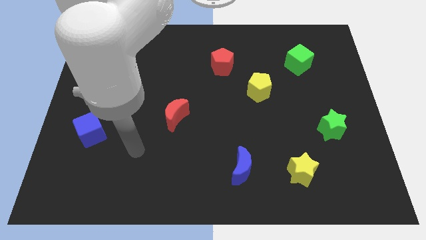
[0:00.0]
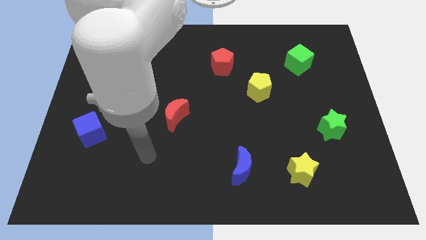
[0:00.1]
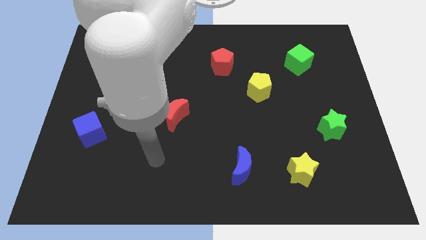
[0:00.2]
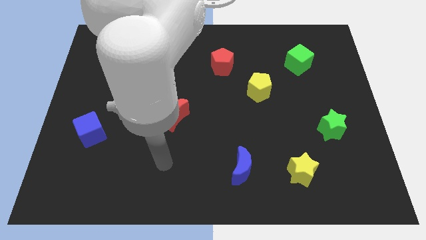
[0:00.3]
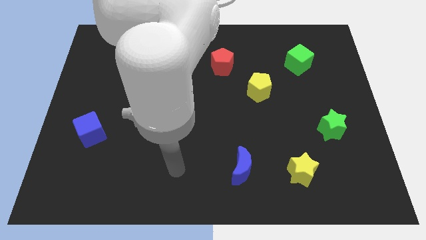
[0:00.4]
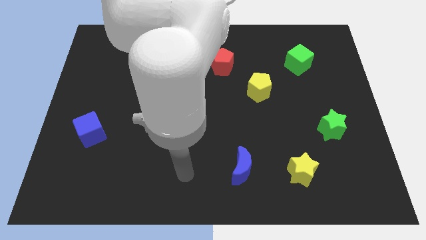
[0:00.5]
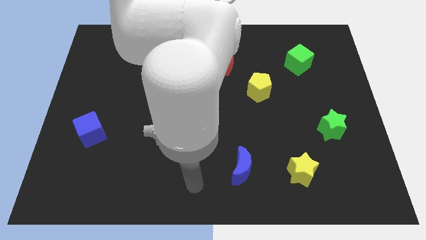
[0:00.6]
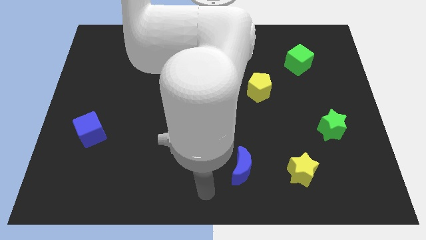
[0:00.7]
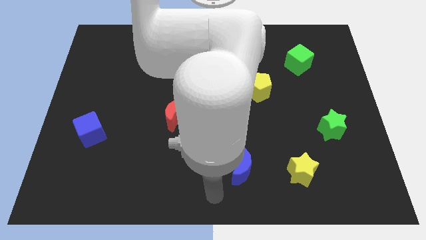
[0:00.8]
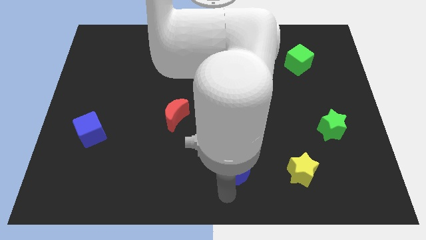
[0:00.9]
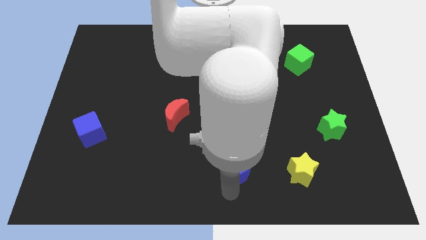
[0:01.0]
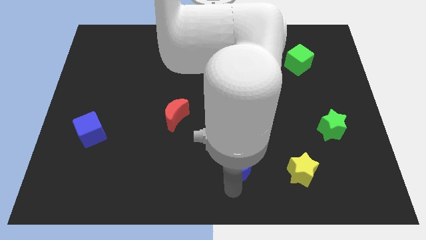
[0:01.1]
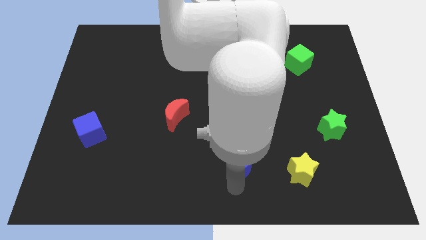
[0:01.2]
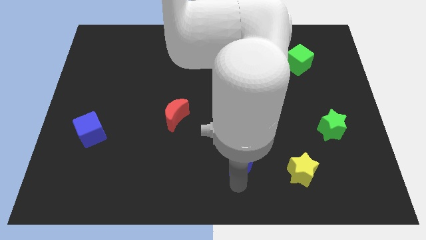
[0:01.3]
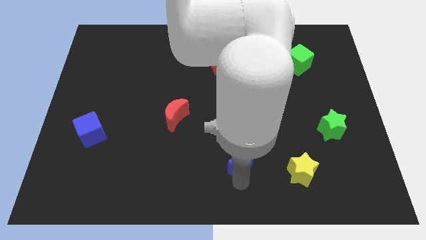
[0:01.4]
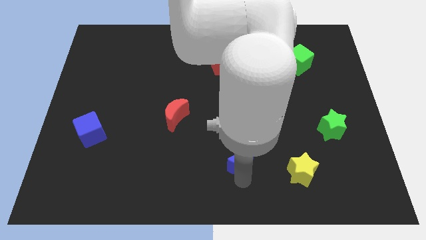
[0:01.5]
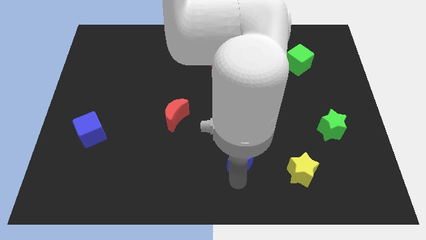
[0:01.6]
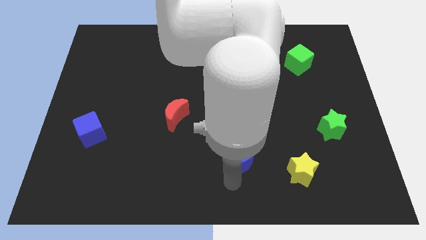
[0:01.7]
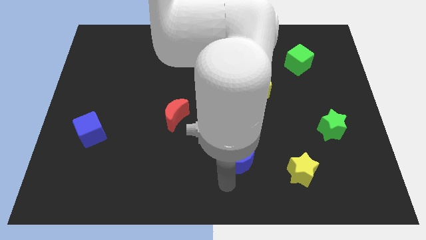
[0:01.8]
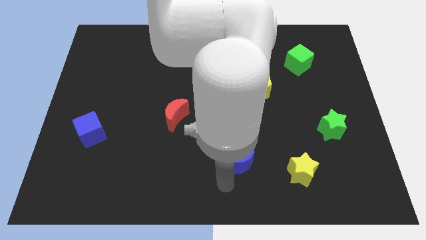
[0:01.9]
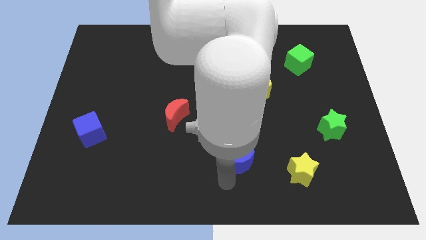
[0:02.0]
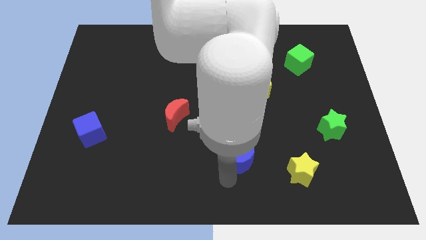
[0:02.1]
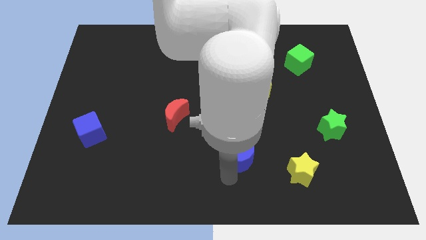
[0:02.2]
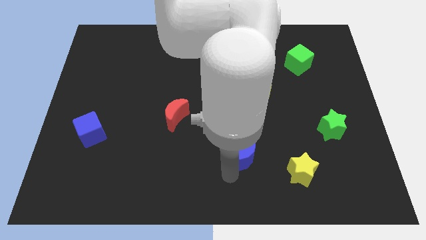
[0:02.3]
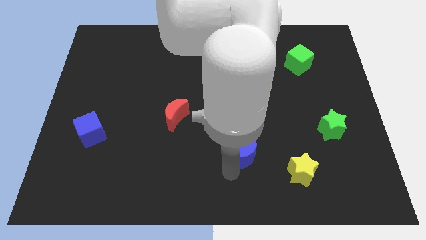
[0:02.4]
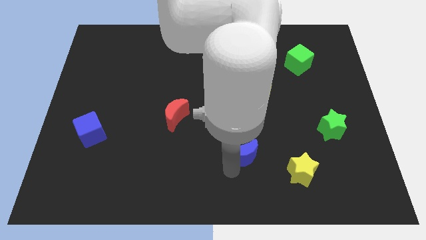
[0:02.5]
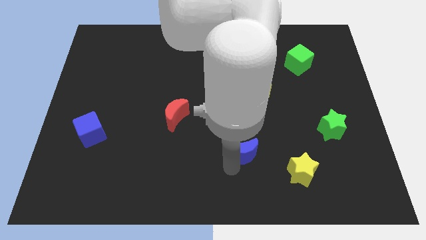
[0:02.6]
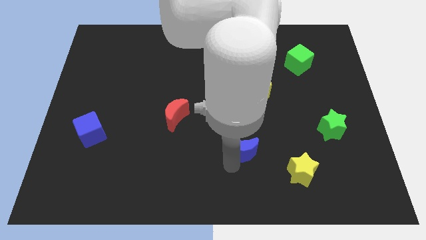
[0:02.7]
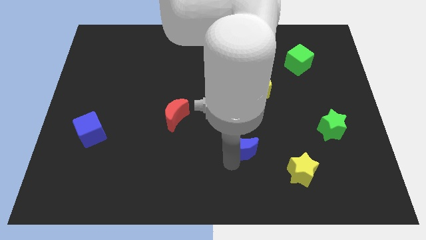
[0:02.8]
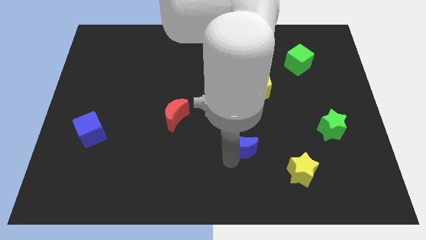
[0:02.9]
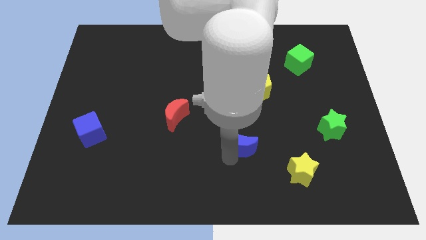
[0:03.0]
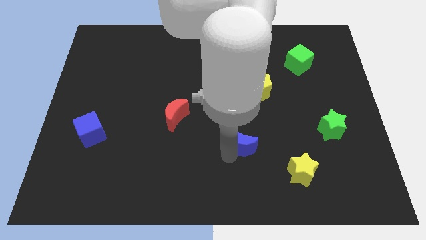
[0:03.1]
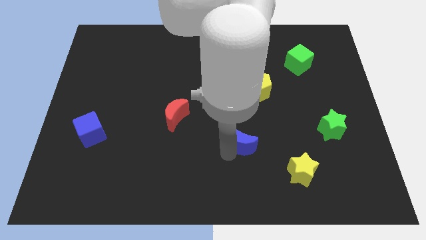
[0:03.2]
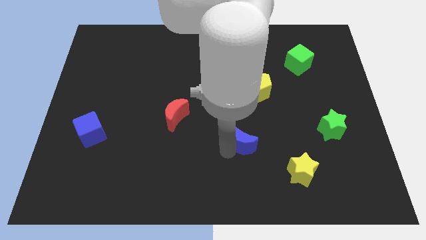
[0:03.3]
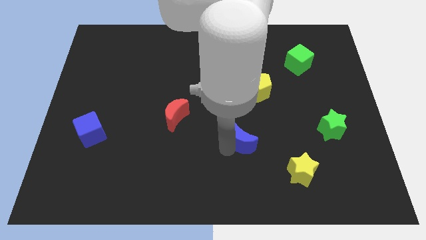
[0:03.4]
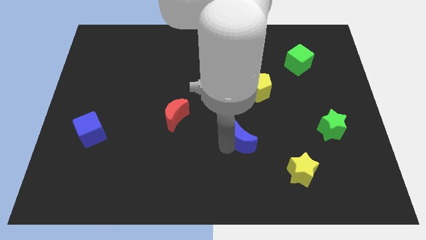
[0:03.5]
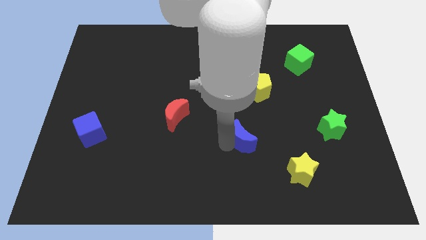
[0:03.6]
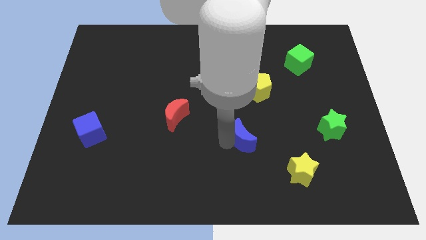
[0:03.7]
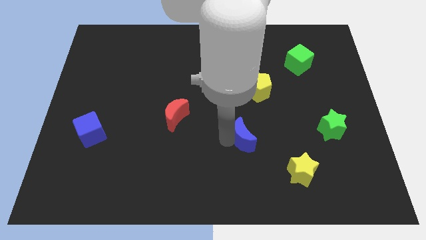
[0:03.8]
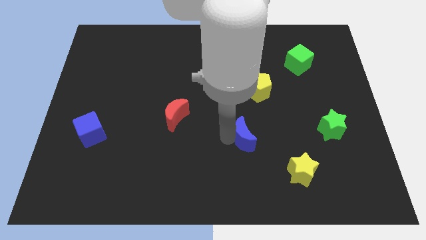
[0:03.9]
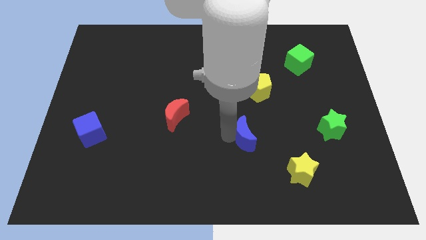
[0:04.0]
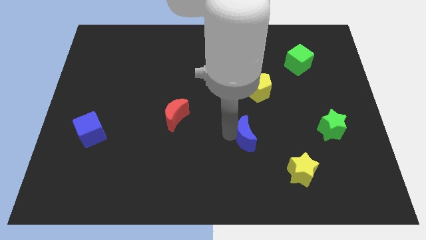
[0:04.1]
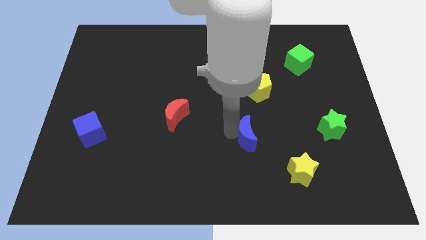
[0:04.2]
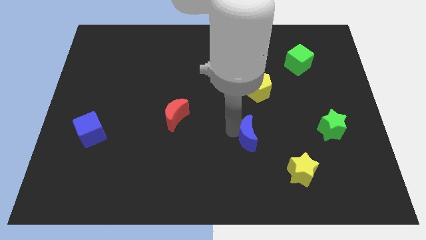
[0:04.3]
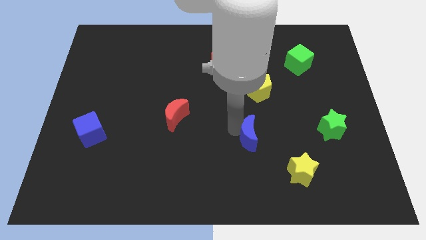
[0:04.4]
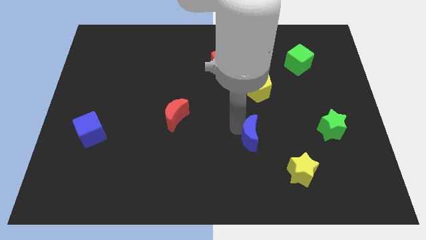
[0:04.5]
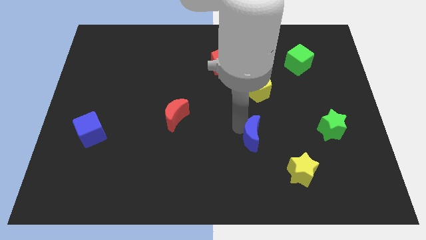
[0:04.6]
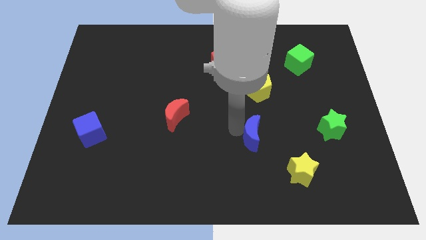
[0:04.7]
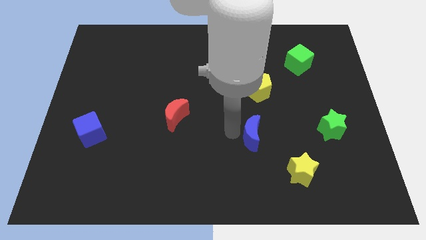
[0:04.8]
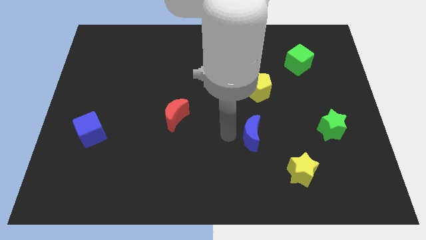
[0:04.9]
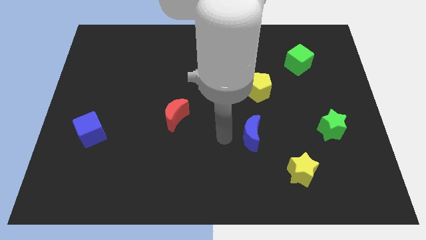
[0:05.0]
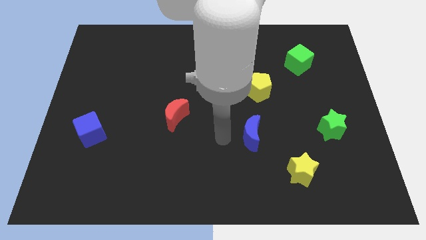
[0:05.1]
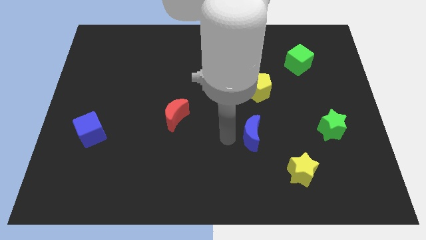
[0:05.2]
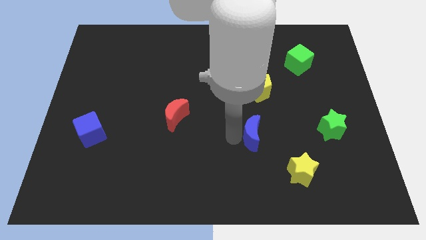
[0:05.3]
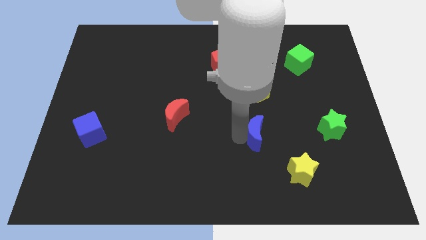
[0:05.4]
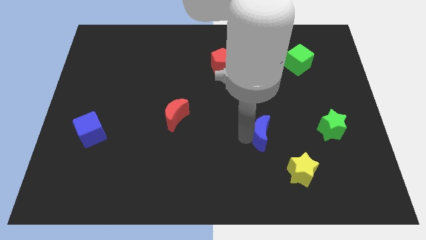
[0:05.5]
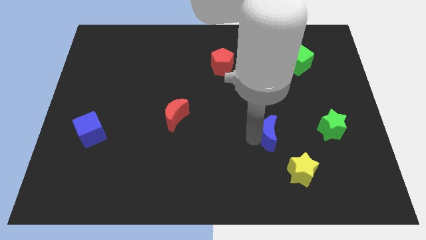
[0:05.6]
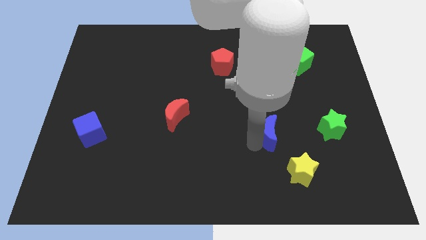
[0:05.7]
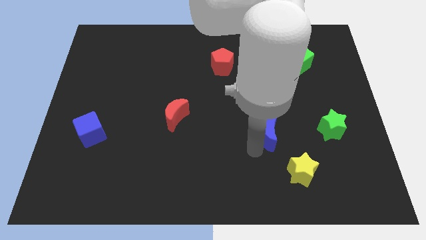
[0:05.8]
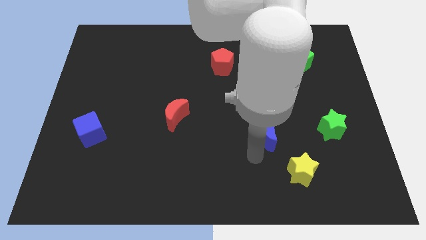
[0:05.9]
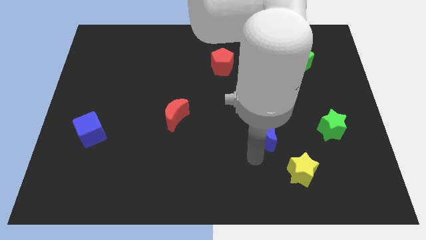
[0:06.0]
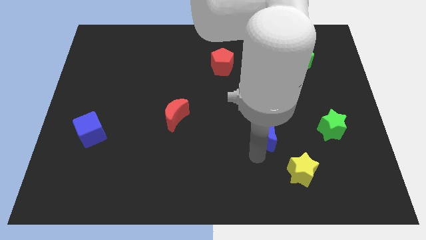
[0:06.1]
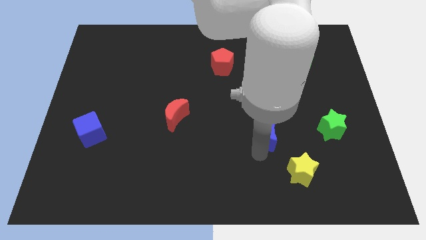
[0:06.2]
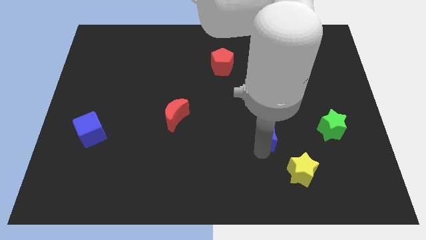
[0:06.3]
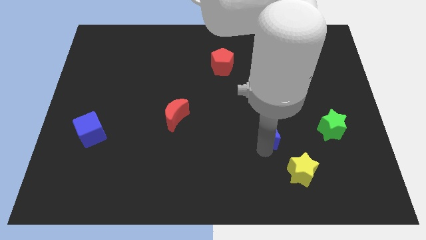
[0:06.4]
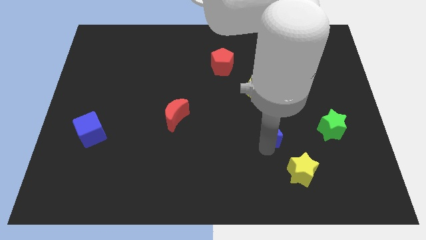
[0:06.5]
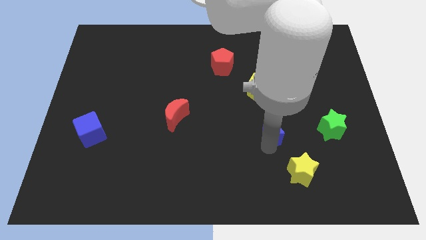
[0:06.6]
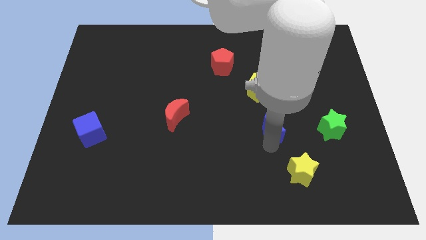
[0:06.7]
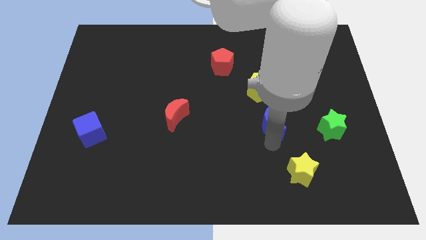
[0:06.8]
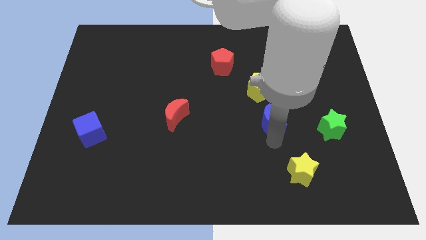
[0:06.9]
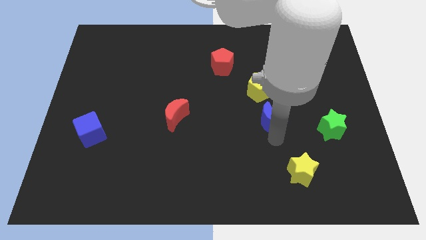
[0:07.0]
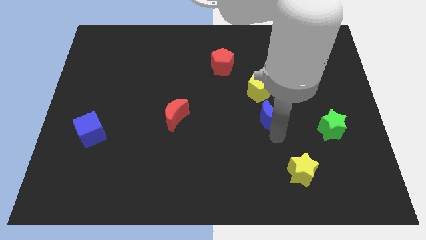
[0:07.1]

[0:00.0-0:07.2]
push the blue moon to the bottom right of the yellow pentagon

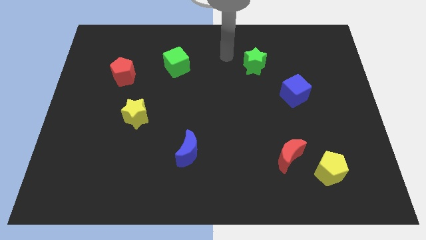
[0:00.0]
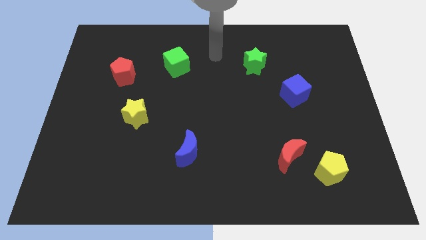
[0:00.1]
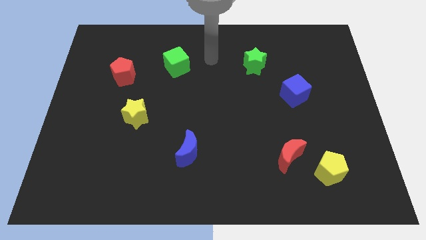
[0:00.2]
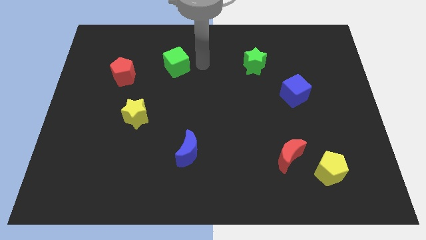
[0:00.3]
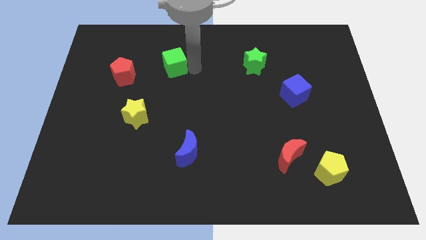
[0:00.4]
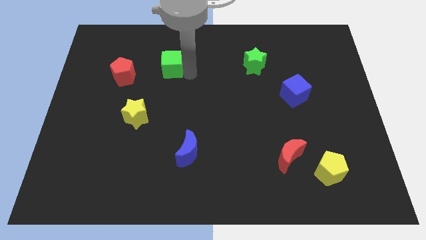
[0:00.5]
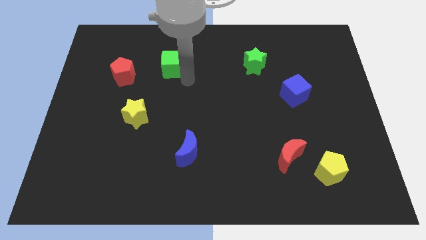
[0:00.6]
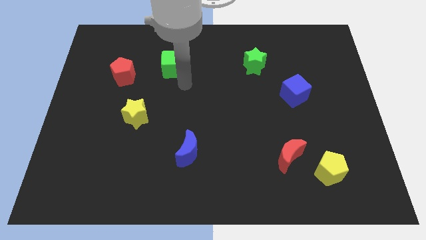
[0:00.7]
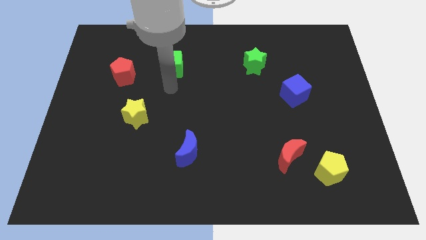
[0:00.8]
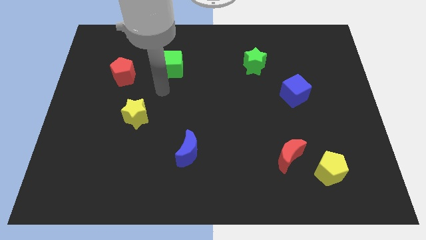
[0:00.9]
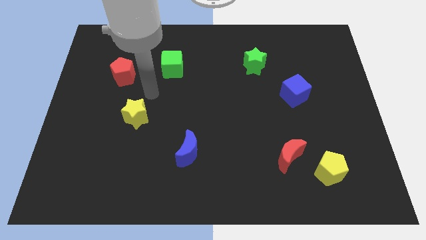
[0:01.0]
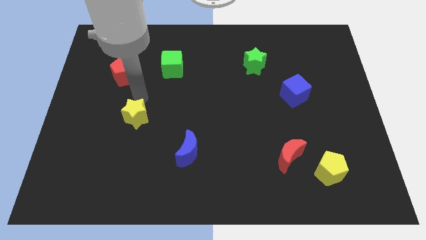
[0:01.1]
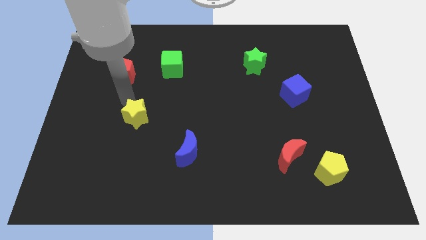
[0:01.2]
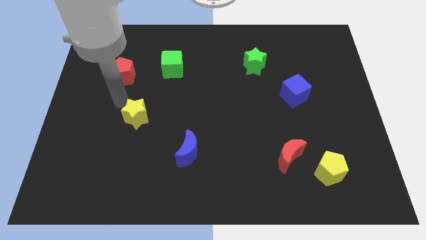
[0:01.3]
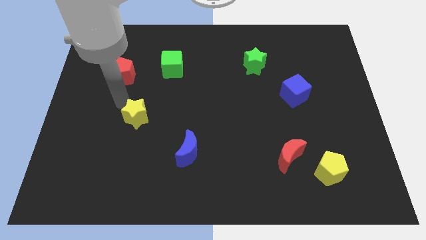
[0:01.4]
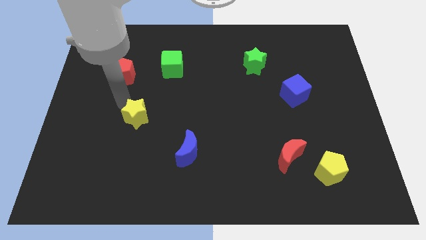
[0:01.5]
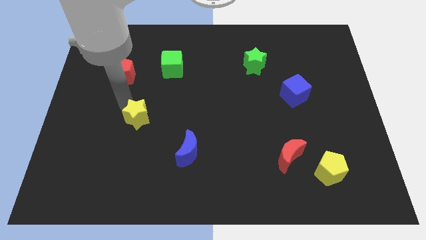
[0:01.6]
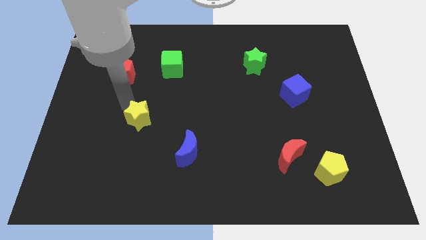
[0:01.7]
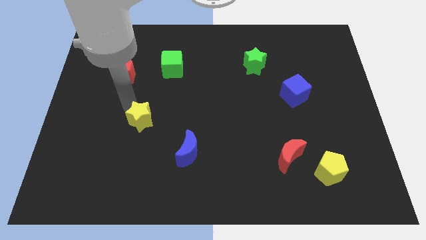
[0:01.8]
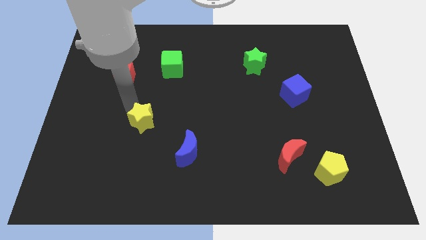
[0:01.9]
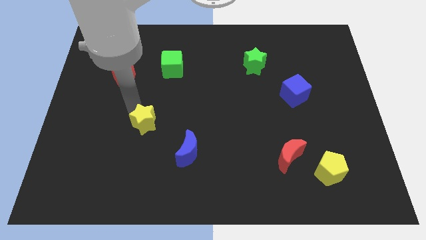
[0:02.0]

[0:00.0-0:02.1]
put the yellow star to the top left of the blue moon
